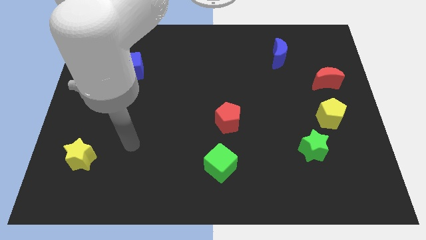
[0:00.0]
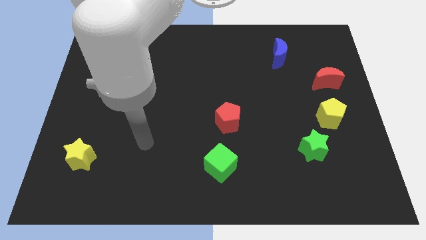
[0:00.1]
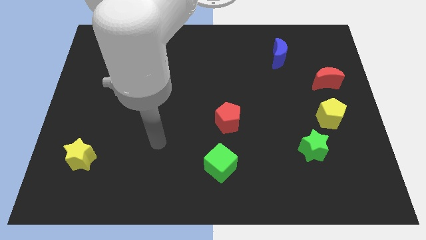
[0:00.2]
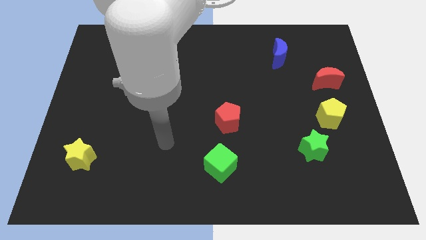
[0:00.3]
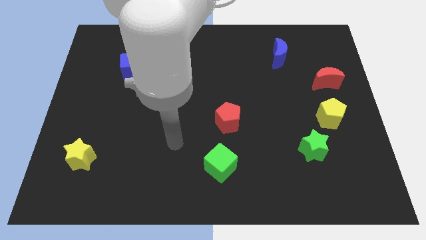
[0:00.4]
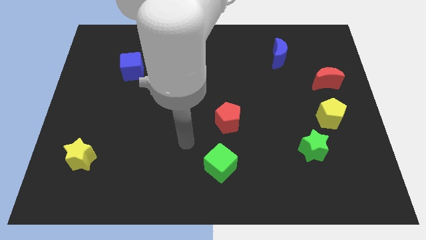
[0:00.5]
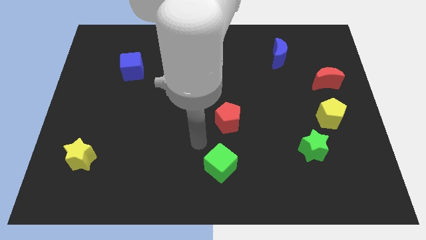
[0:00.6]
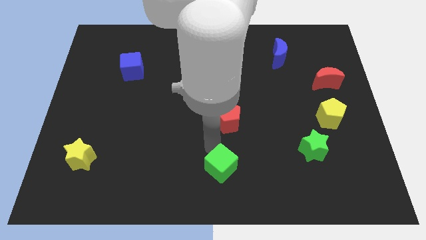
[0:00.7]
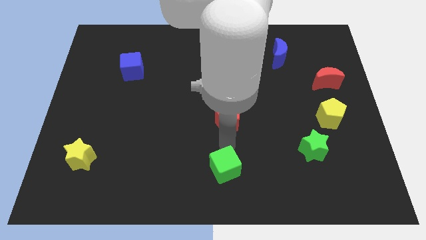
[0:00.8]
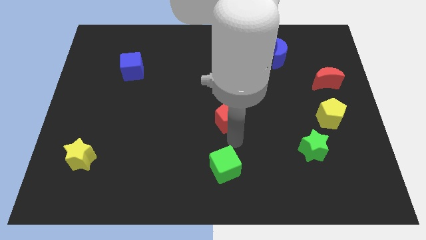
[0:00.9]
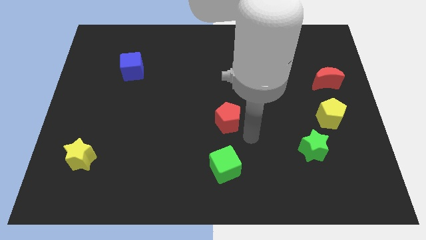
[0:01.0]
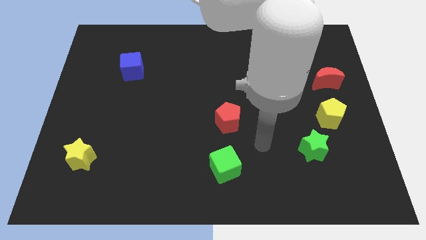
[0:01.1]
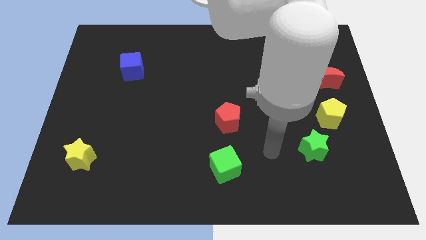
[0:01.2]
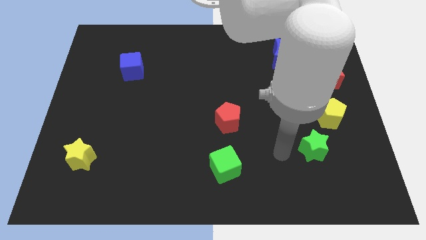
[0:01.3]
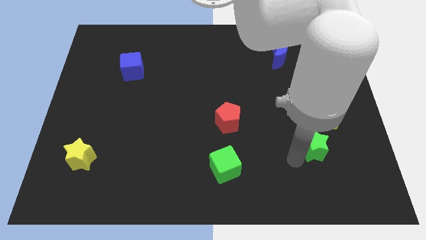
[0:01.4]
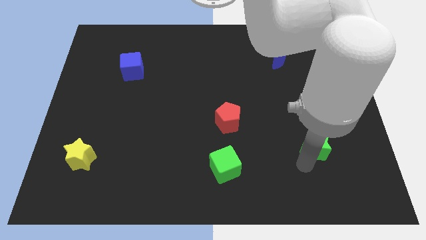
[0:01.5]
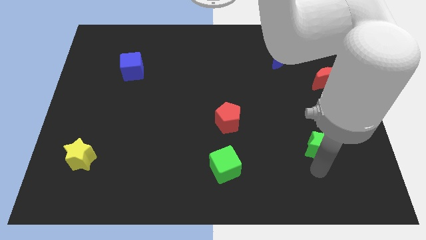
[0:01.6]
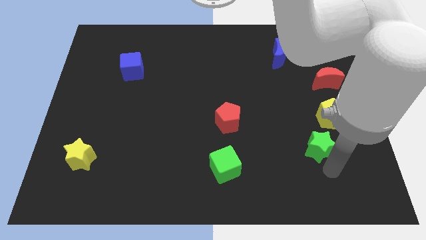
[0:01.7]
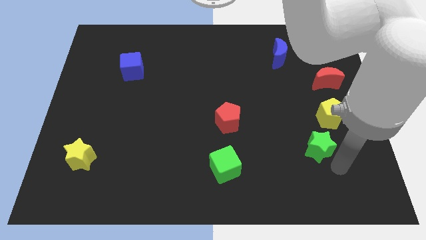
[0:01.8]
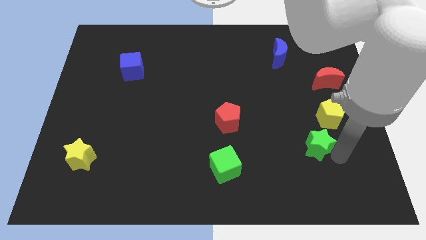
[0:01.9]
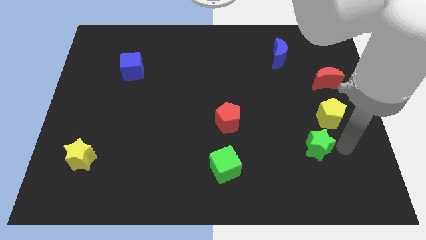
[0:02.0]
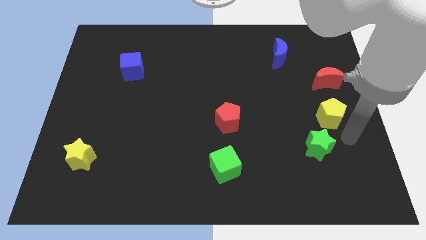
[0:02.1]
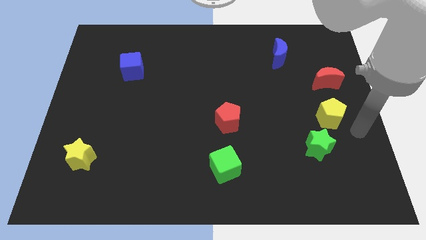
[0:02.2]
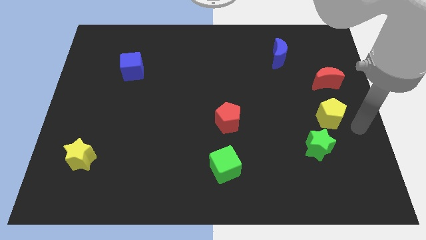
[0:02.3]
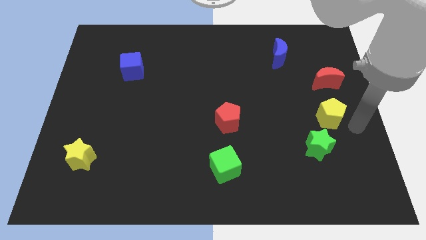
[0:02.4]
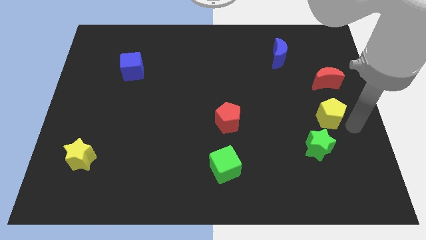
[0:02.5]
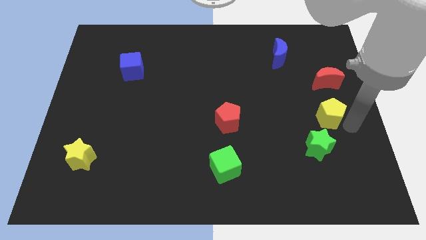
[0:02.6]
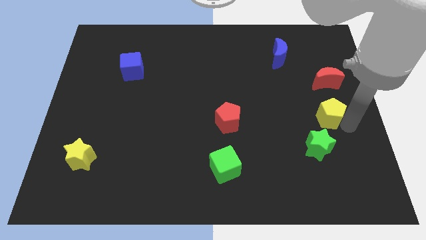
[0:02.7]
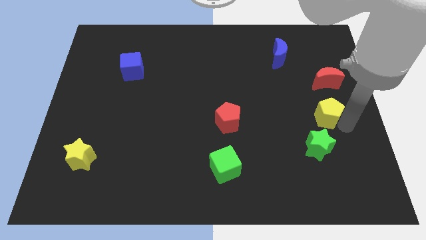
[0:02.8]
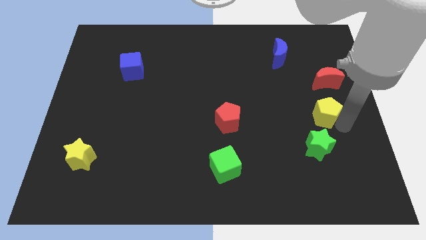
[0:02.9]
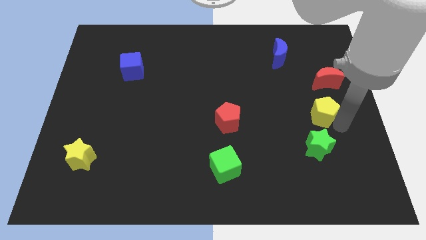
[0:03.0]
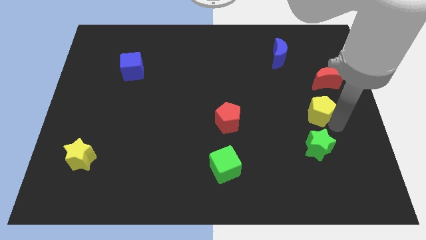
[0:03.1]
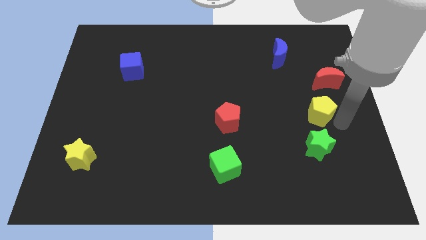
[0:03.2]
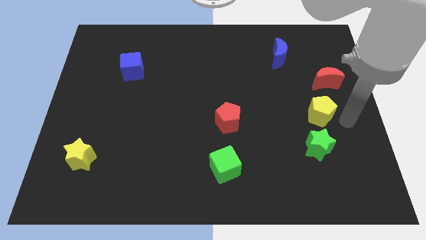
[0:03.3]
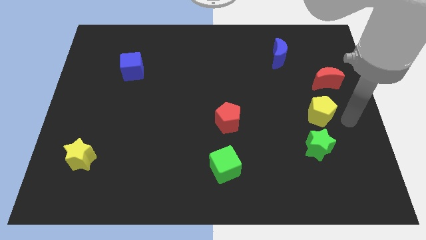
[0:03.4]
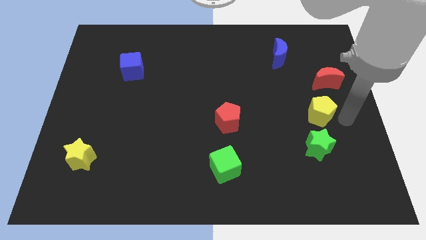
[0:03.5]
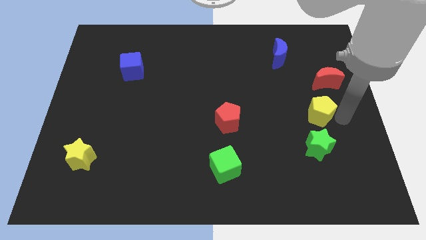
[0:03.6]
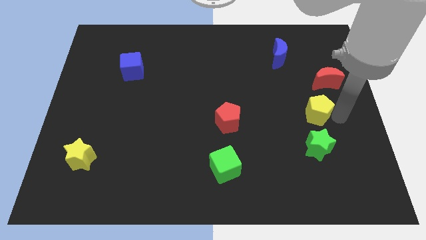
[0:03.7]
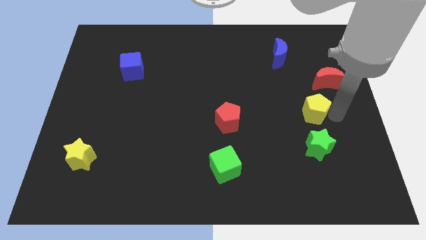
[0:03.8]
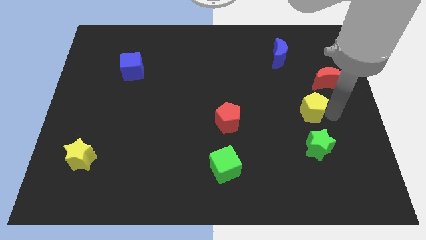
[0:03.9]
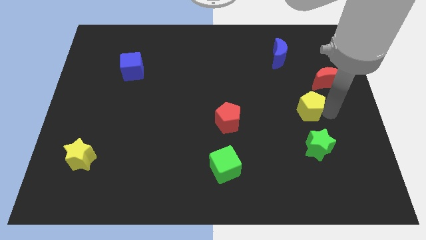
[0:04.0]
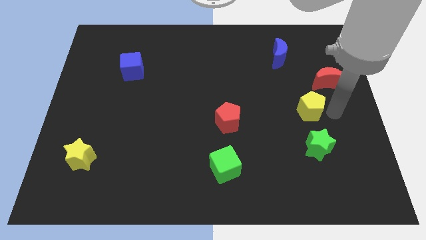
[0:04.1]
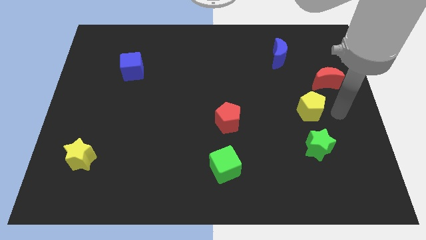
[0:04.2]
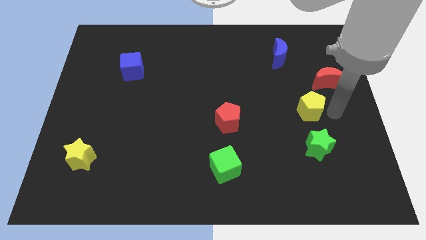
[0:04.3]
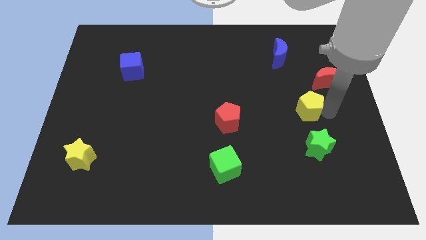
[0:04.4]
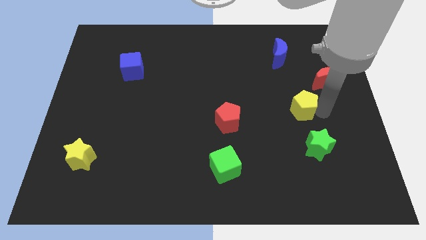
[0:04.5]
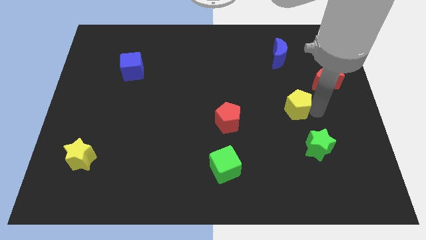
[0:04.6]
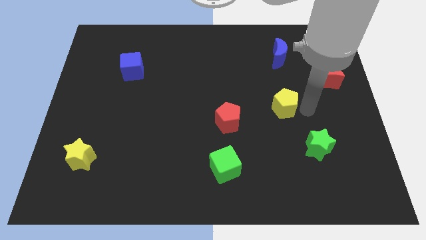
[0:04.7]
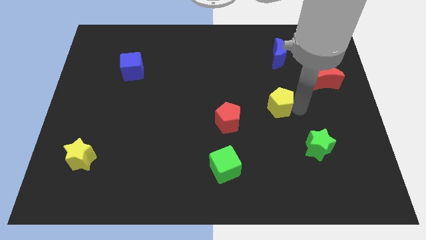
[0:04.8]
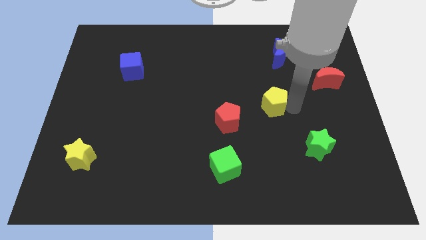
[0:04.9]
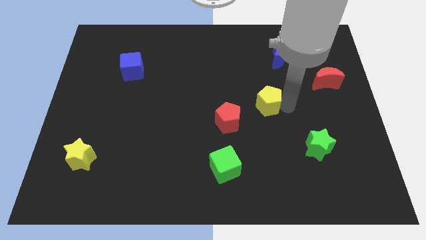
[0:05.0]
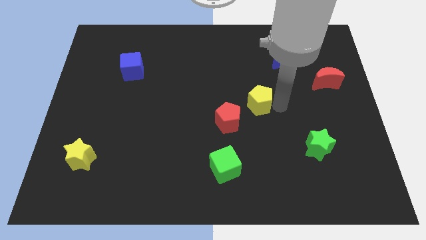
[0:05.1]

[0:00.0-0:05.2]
slide the yellow pentagon to the center of the board

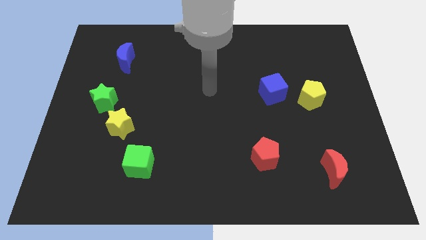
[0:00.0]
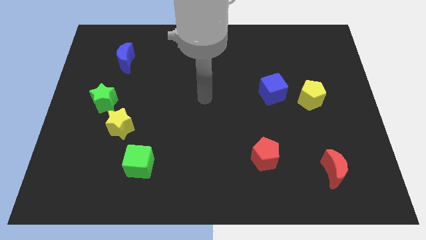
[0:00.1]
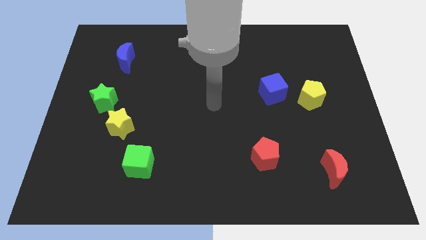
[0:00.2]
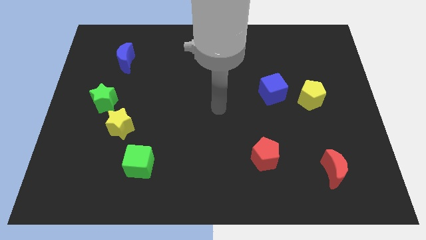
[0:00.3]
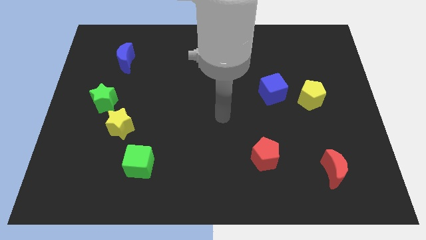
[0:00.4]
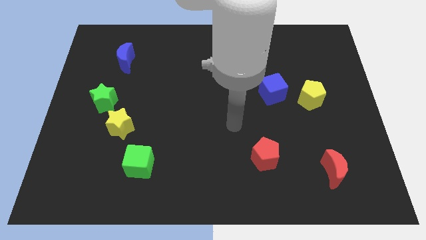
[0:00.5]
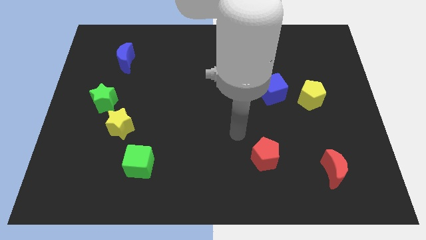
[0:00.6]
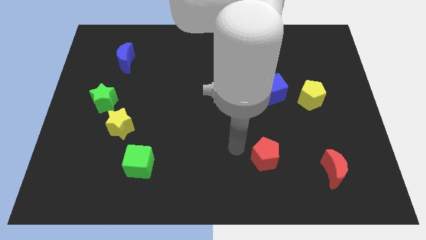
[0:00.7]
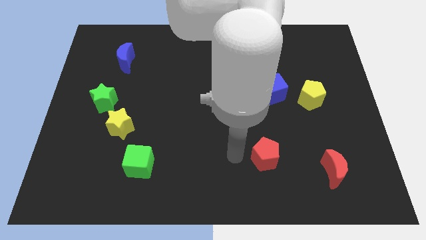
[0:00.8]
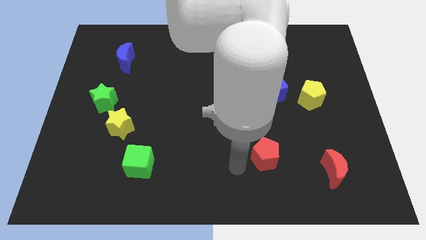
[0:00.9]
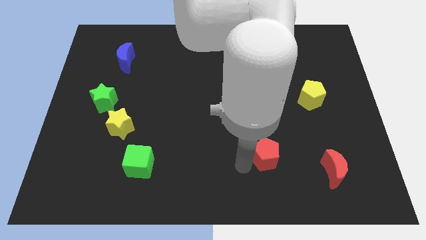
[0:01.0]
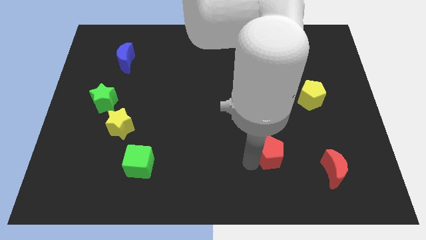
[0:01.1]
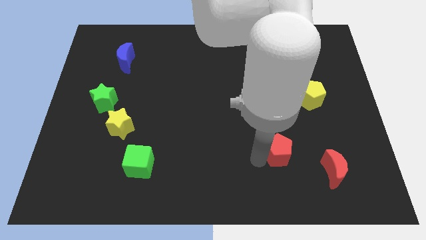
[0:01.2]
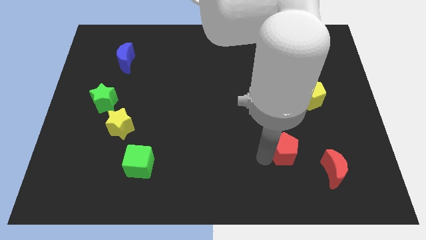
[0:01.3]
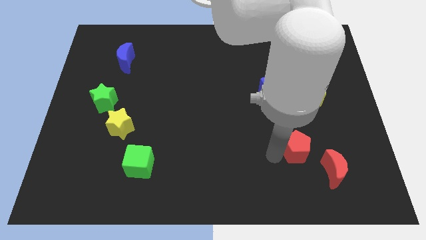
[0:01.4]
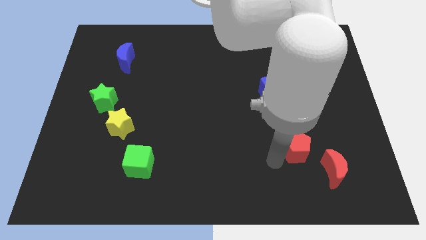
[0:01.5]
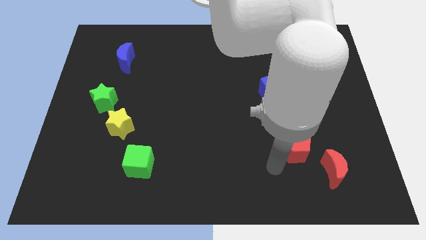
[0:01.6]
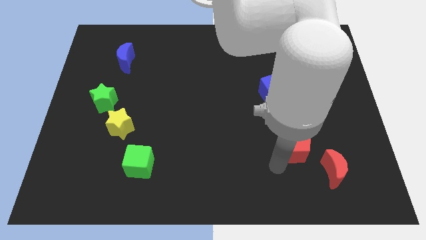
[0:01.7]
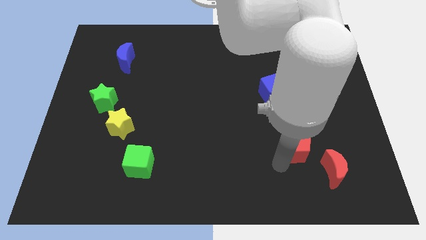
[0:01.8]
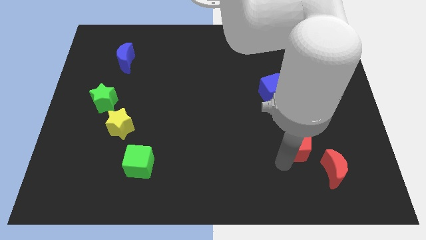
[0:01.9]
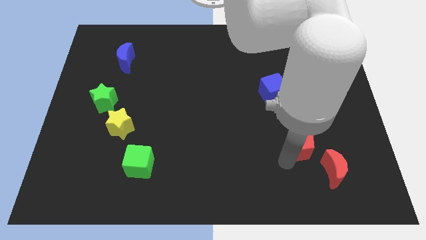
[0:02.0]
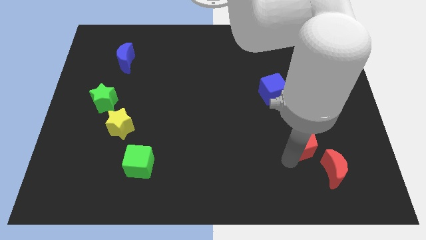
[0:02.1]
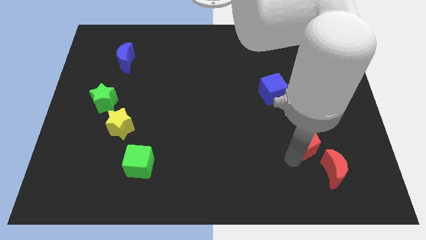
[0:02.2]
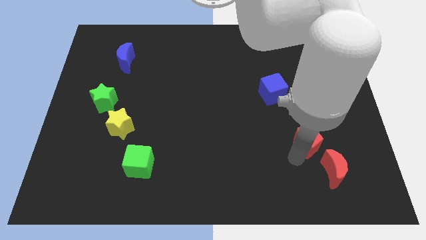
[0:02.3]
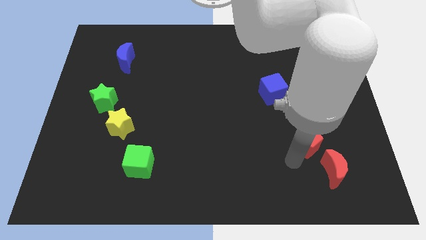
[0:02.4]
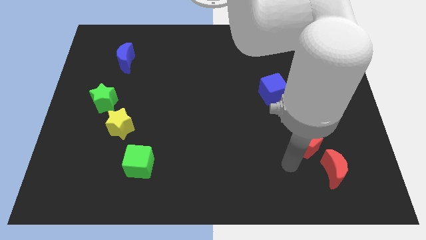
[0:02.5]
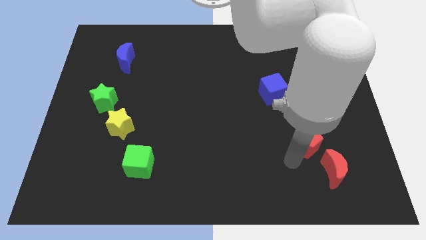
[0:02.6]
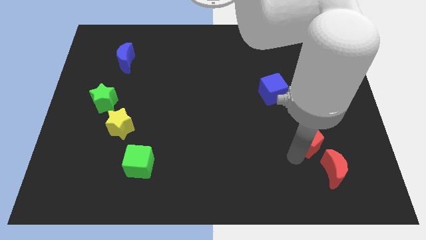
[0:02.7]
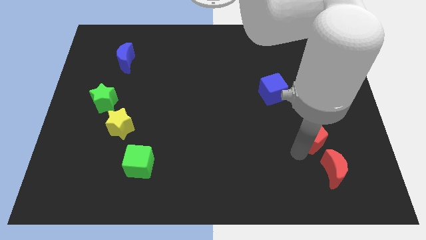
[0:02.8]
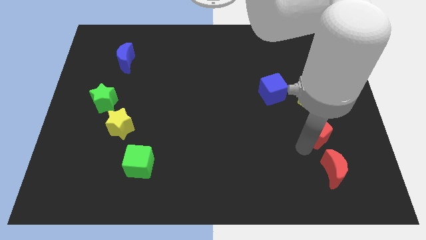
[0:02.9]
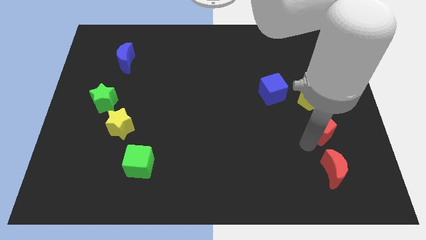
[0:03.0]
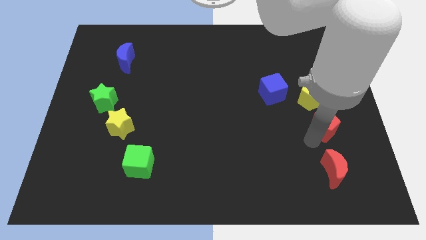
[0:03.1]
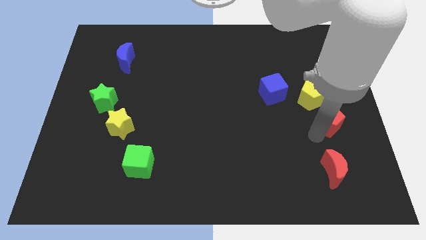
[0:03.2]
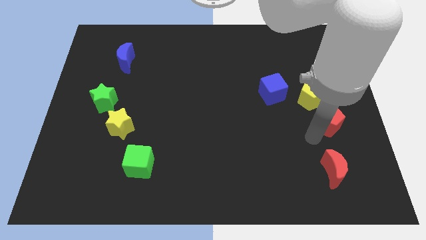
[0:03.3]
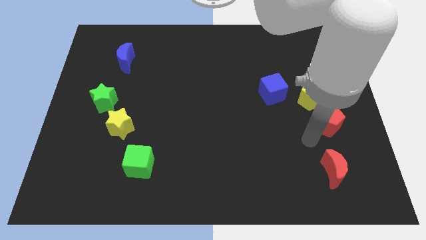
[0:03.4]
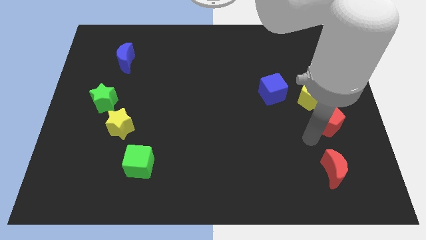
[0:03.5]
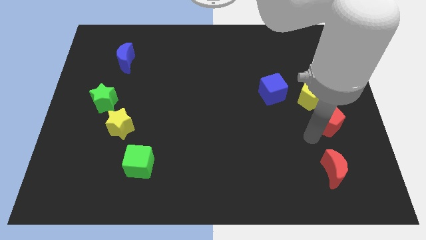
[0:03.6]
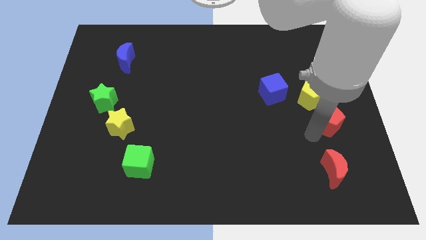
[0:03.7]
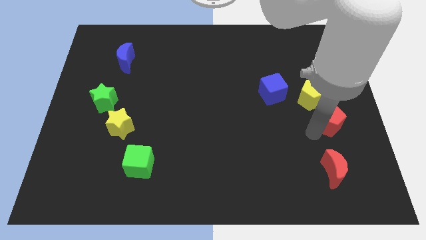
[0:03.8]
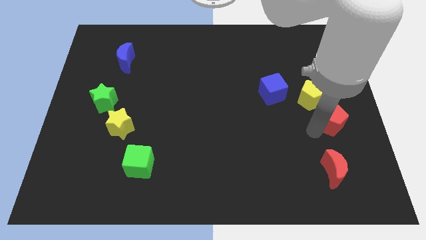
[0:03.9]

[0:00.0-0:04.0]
move the red pentagon to the right side of the board
